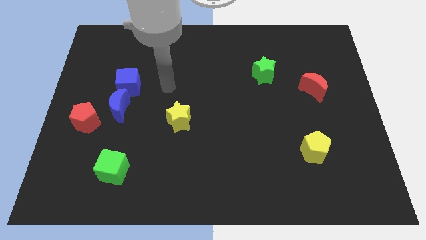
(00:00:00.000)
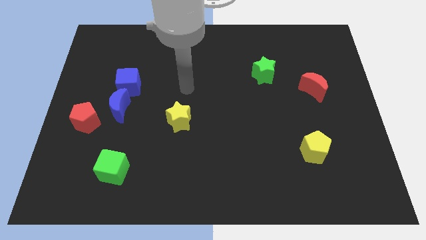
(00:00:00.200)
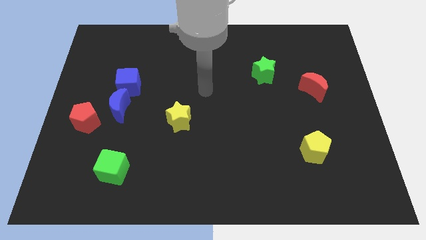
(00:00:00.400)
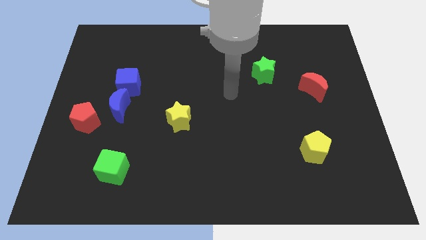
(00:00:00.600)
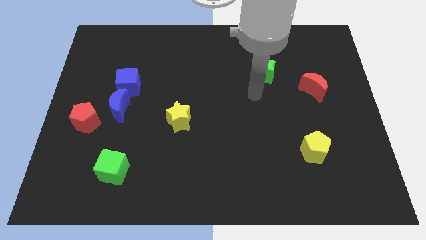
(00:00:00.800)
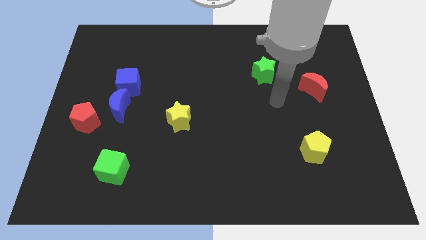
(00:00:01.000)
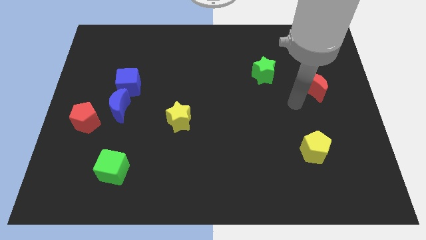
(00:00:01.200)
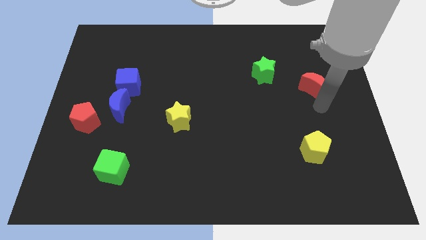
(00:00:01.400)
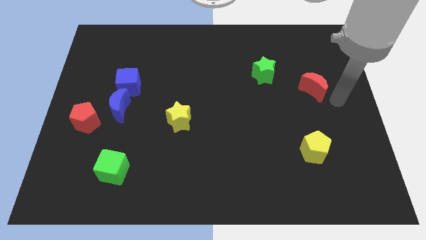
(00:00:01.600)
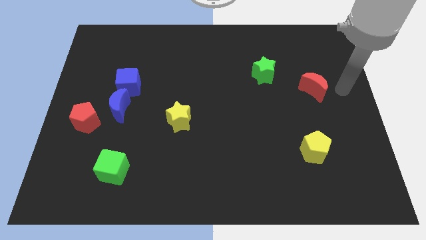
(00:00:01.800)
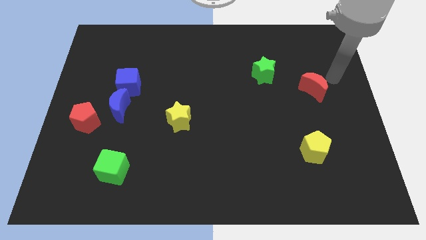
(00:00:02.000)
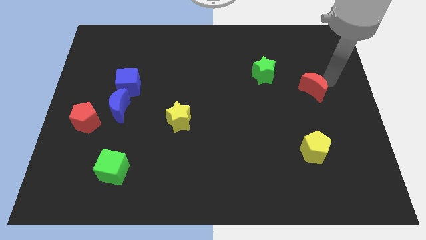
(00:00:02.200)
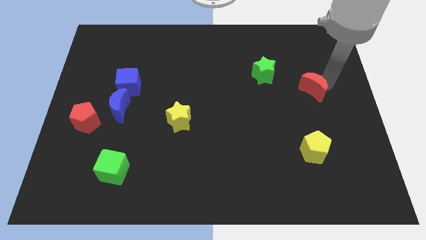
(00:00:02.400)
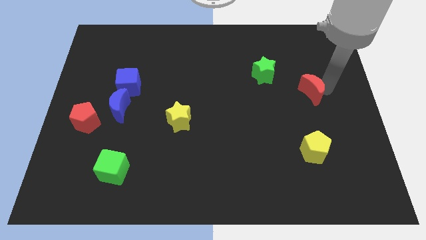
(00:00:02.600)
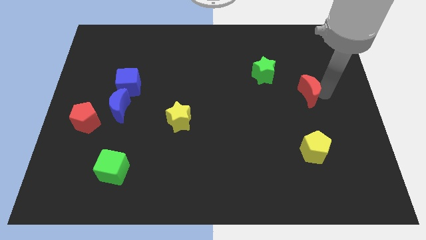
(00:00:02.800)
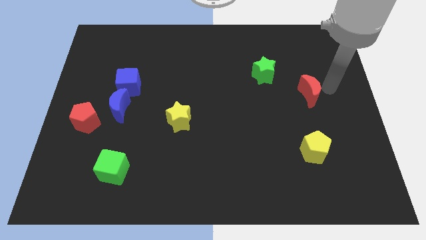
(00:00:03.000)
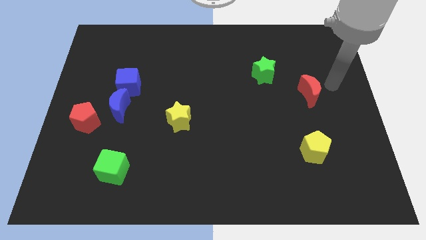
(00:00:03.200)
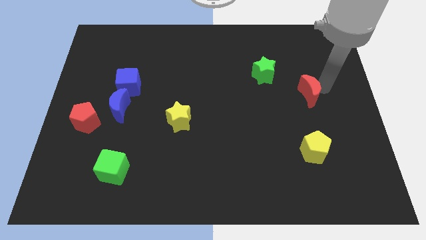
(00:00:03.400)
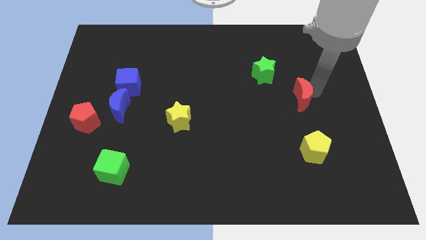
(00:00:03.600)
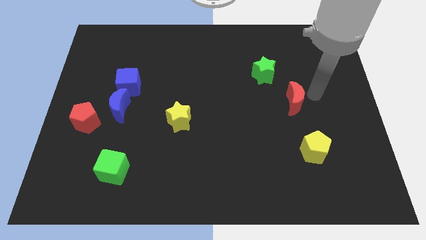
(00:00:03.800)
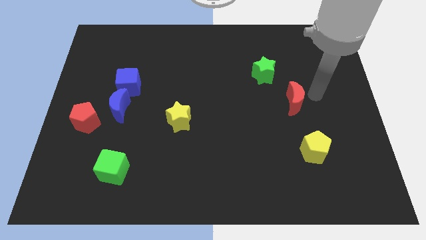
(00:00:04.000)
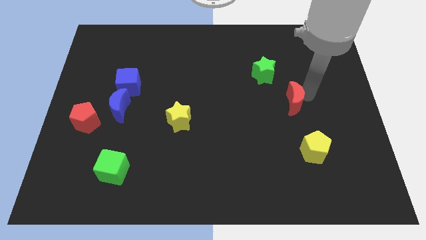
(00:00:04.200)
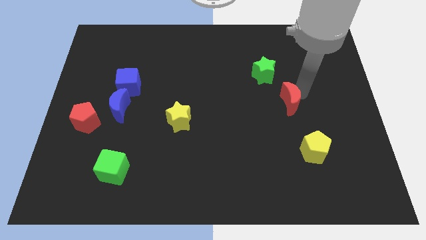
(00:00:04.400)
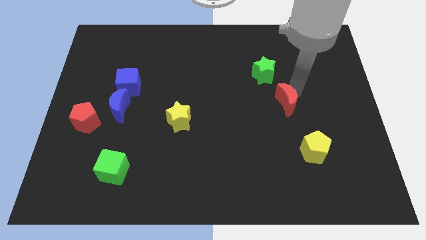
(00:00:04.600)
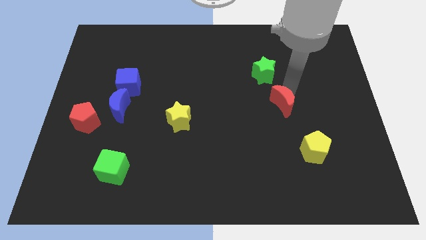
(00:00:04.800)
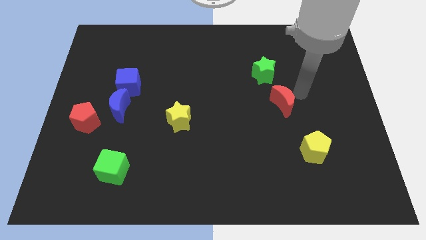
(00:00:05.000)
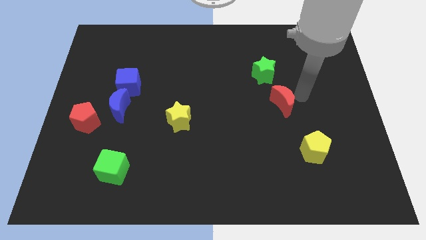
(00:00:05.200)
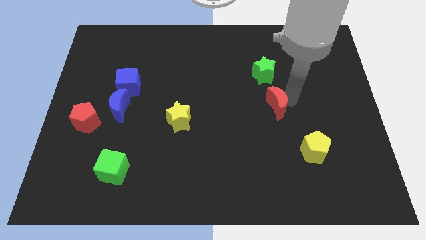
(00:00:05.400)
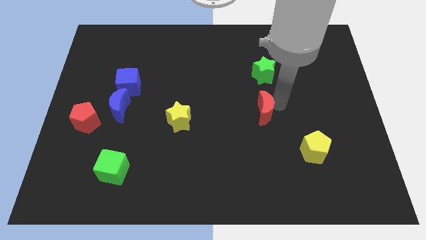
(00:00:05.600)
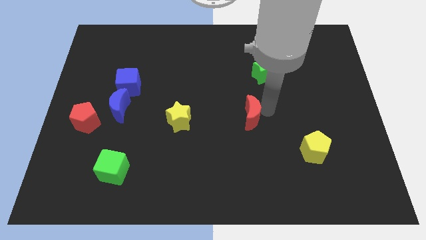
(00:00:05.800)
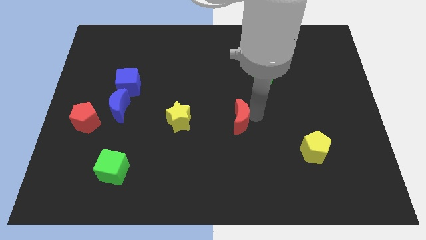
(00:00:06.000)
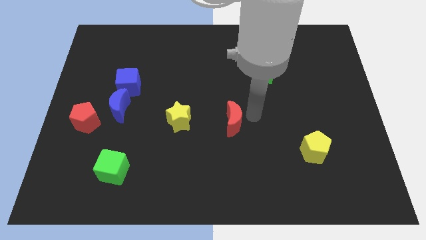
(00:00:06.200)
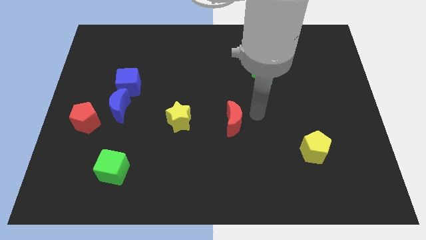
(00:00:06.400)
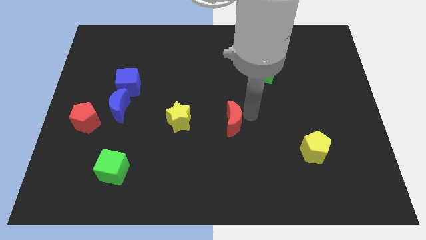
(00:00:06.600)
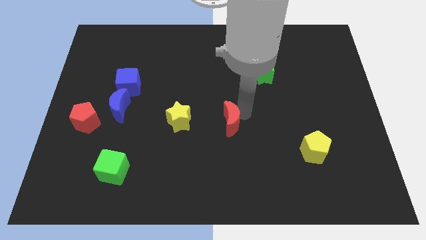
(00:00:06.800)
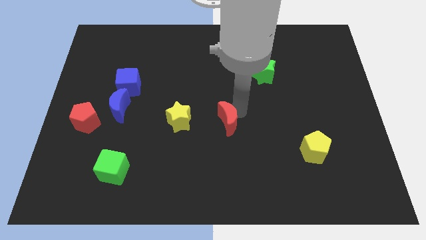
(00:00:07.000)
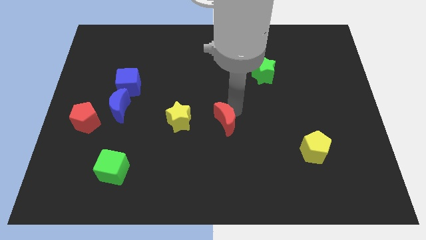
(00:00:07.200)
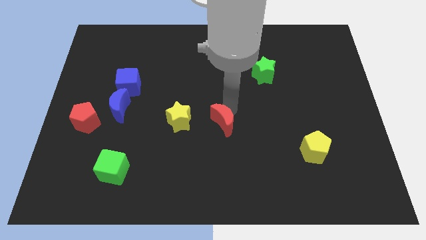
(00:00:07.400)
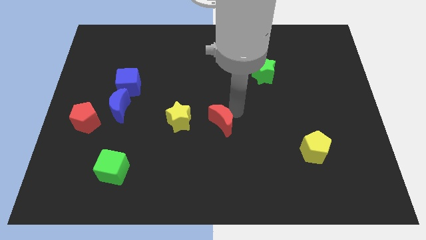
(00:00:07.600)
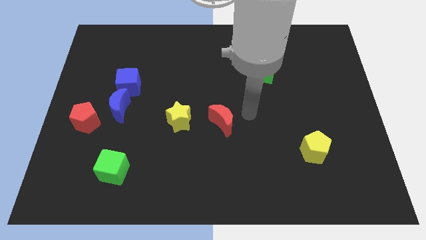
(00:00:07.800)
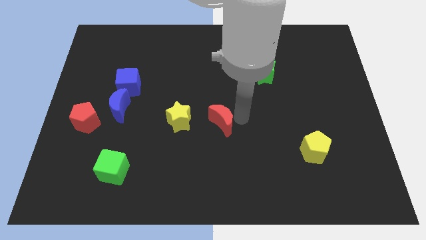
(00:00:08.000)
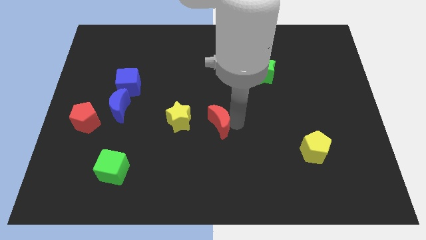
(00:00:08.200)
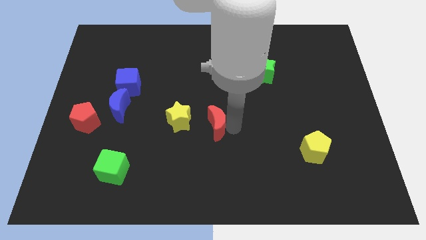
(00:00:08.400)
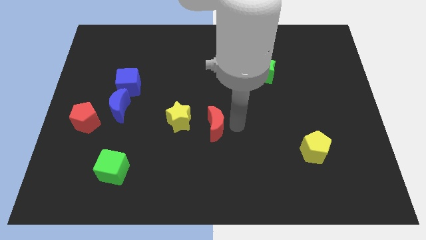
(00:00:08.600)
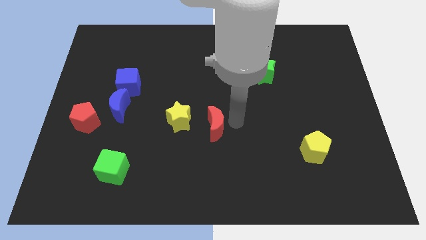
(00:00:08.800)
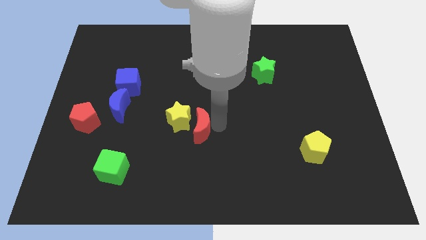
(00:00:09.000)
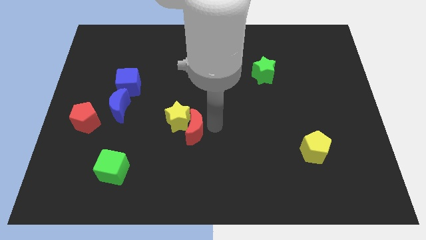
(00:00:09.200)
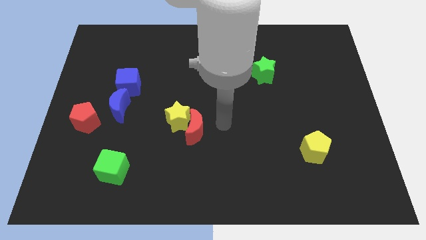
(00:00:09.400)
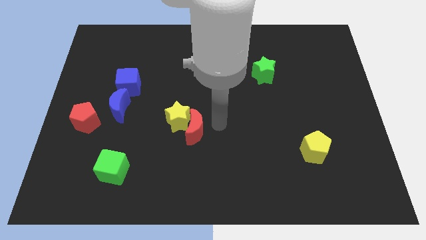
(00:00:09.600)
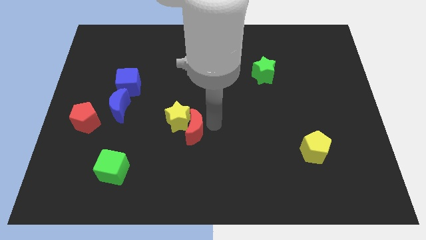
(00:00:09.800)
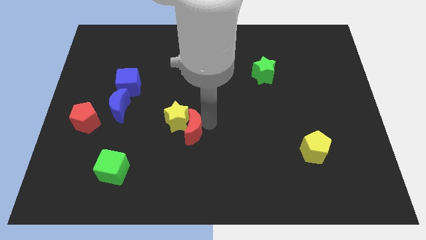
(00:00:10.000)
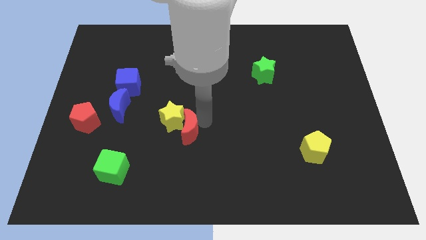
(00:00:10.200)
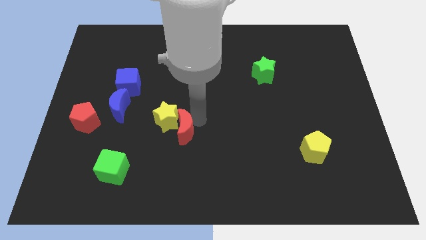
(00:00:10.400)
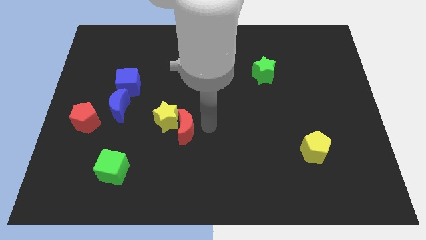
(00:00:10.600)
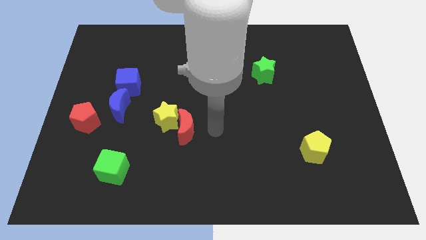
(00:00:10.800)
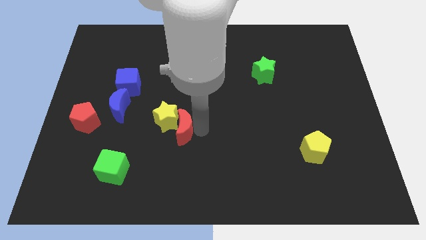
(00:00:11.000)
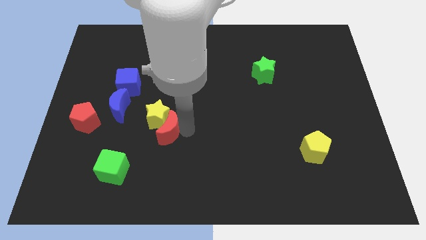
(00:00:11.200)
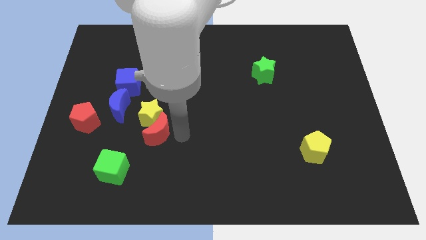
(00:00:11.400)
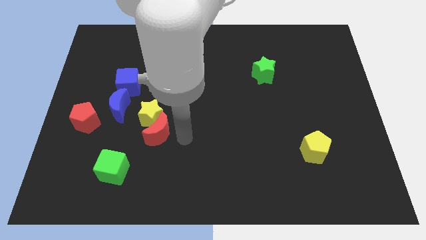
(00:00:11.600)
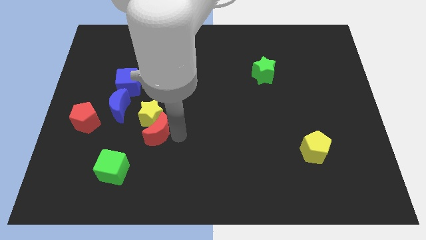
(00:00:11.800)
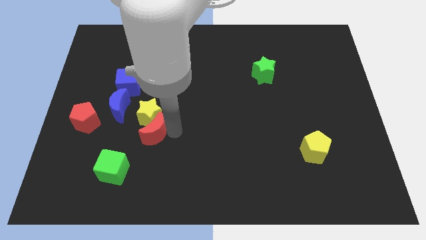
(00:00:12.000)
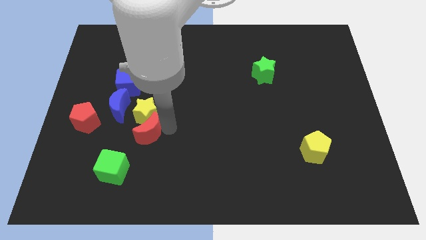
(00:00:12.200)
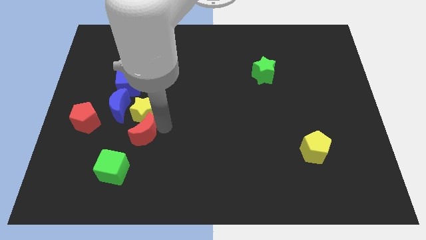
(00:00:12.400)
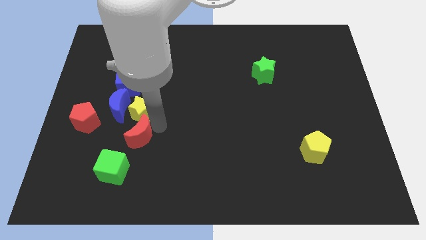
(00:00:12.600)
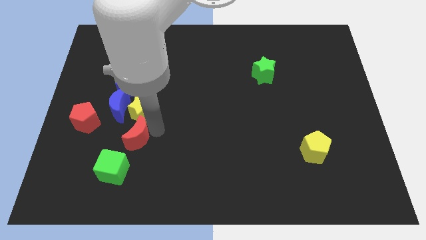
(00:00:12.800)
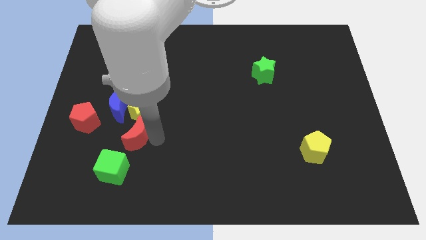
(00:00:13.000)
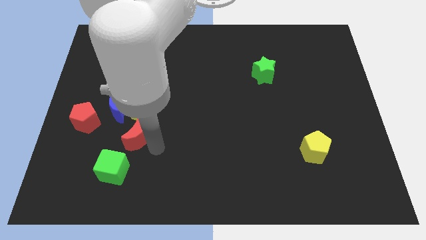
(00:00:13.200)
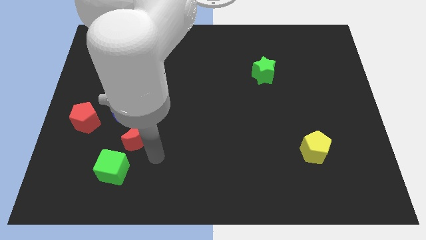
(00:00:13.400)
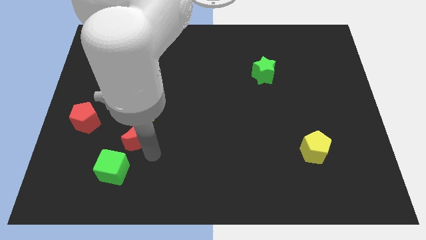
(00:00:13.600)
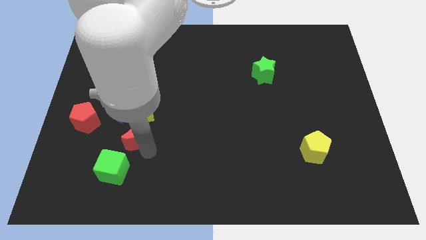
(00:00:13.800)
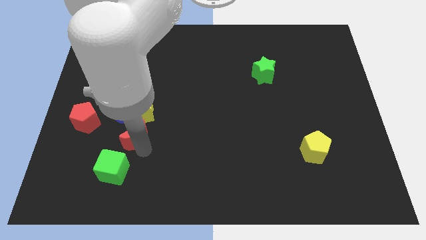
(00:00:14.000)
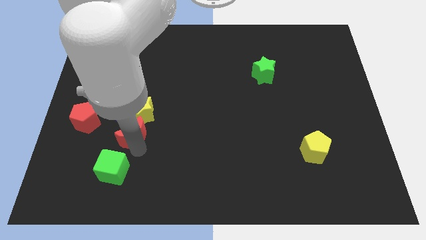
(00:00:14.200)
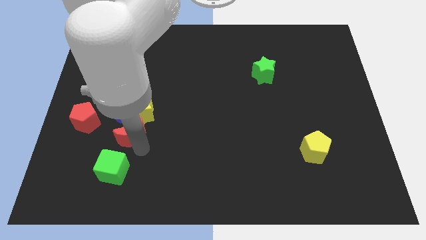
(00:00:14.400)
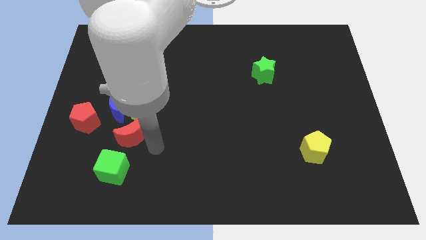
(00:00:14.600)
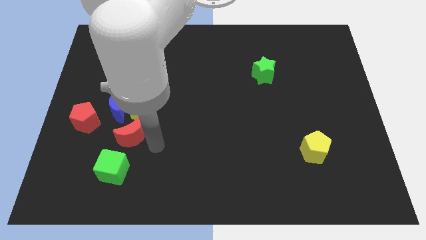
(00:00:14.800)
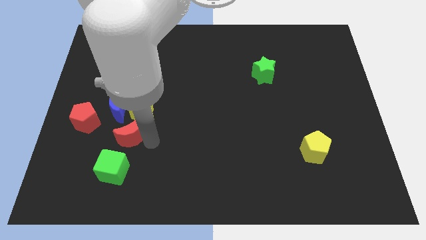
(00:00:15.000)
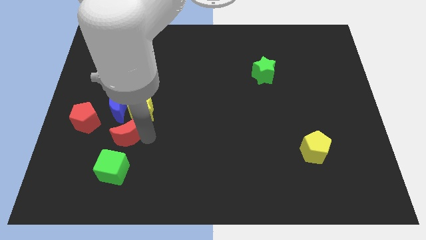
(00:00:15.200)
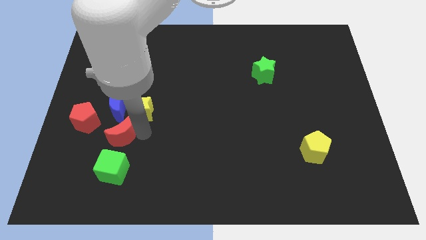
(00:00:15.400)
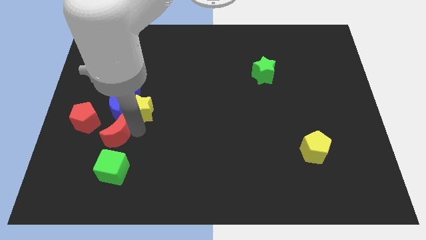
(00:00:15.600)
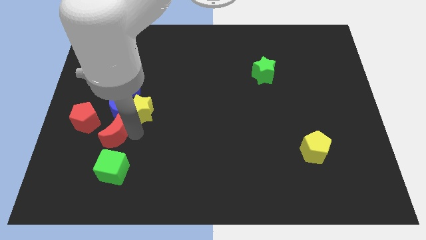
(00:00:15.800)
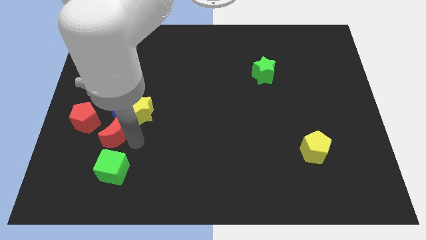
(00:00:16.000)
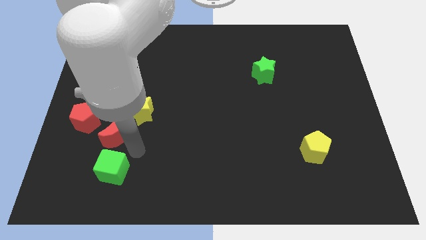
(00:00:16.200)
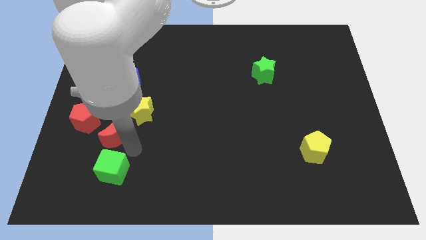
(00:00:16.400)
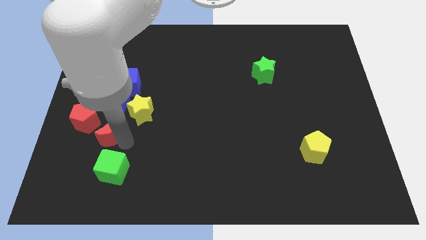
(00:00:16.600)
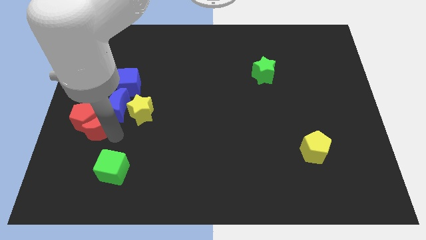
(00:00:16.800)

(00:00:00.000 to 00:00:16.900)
put the red moon towards the red pentagon
